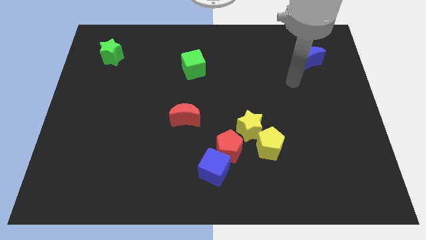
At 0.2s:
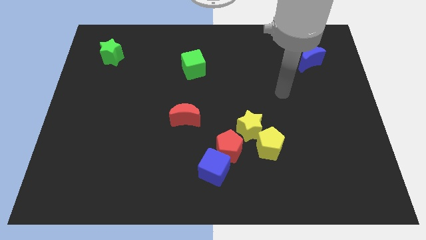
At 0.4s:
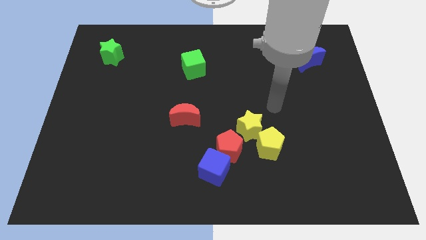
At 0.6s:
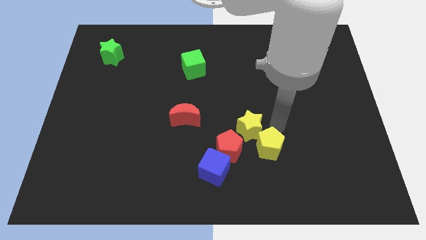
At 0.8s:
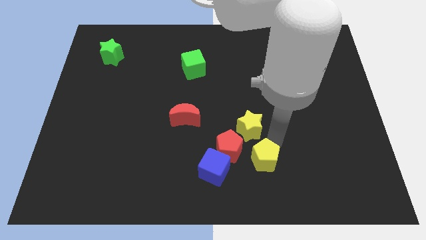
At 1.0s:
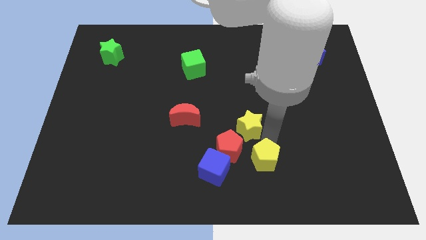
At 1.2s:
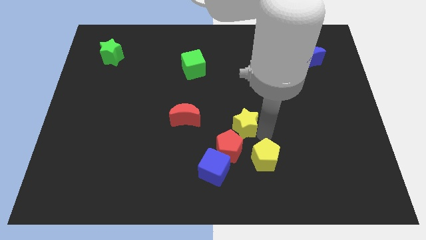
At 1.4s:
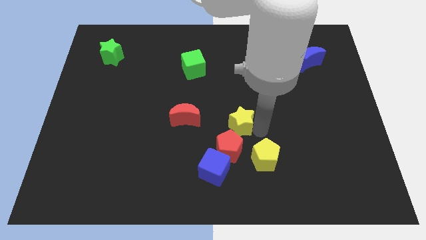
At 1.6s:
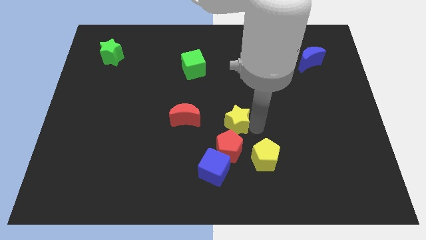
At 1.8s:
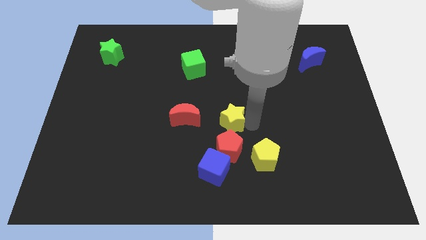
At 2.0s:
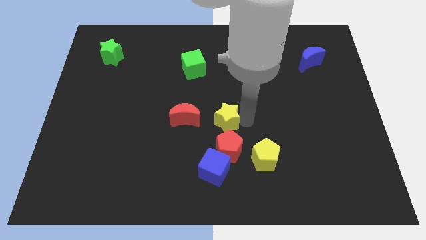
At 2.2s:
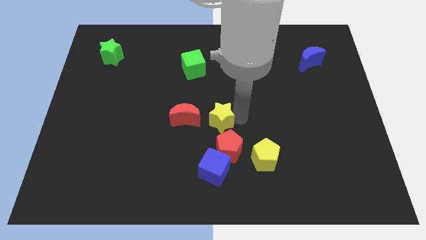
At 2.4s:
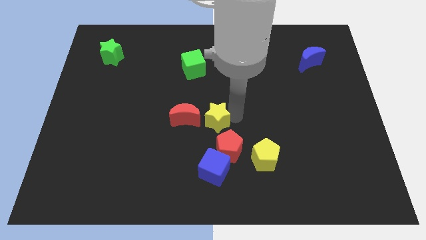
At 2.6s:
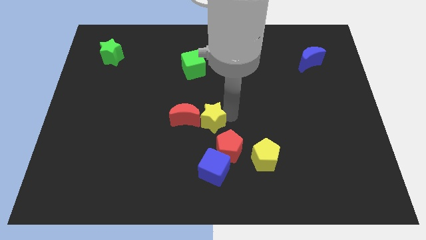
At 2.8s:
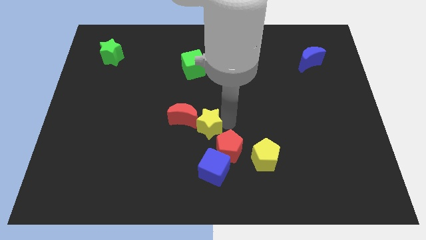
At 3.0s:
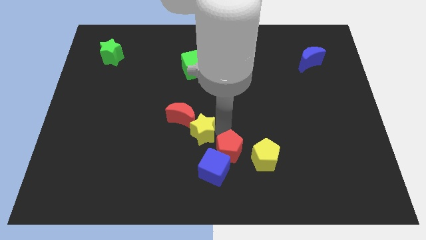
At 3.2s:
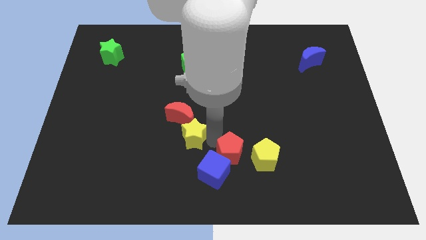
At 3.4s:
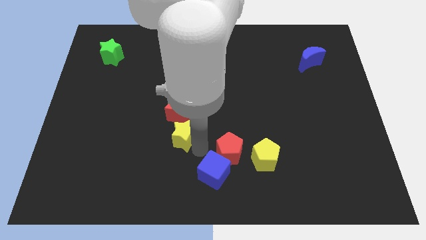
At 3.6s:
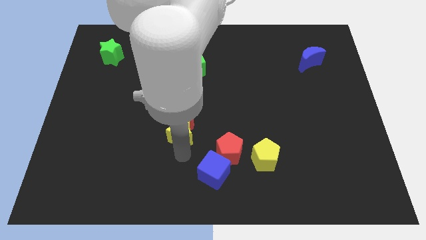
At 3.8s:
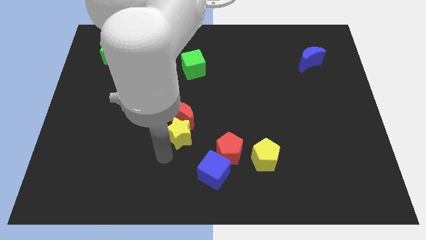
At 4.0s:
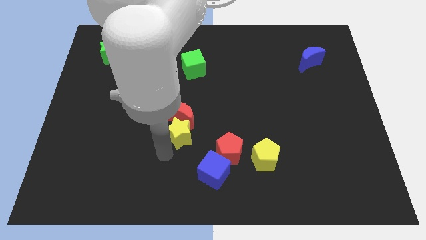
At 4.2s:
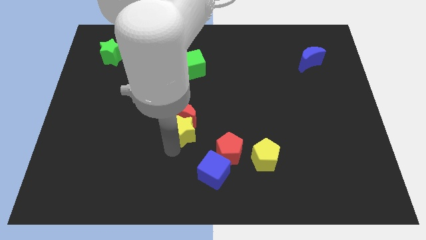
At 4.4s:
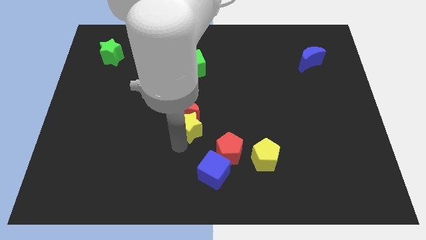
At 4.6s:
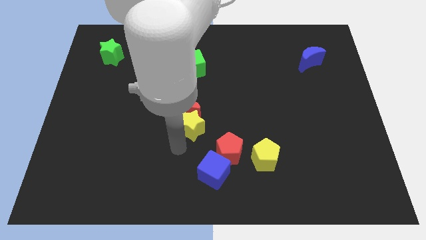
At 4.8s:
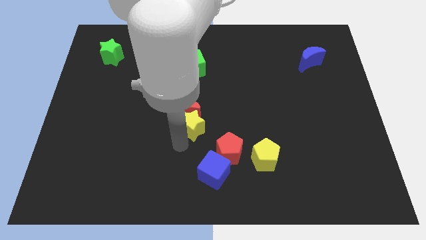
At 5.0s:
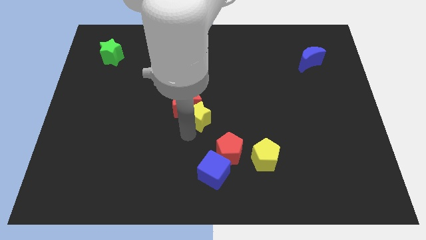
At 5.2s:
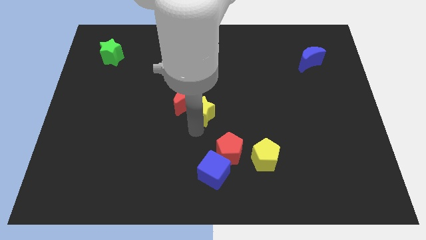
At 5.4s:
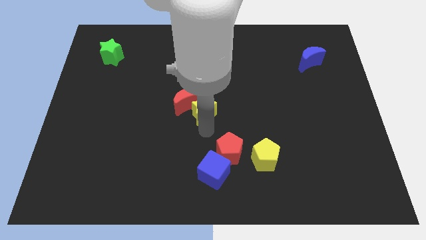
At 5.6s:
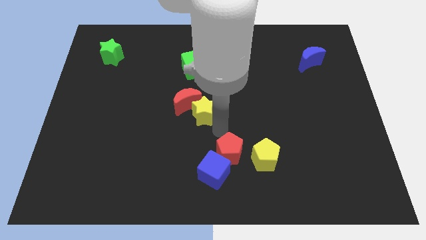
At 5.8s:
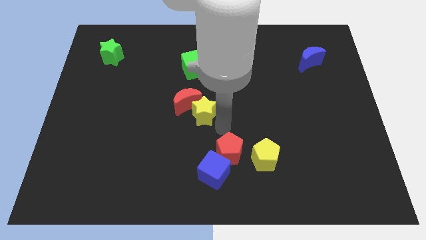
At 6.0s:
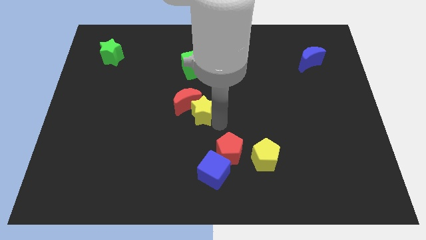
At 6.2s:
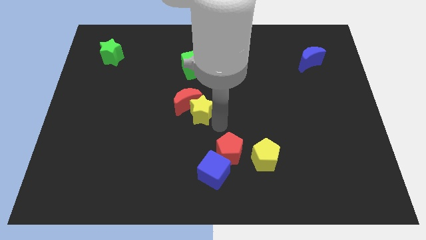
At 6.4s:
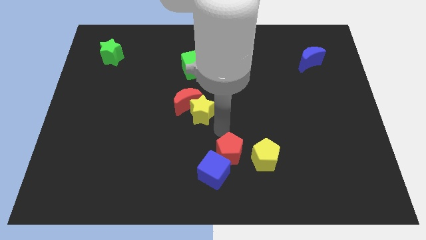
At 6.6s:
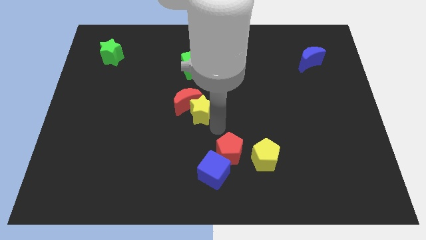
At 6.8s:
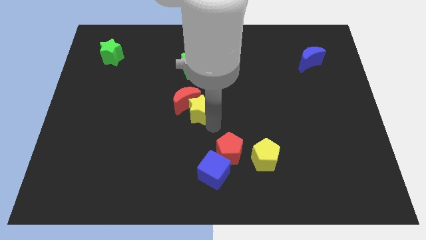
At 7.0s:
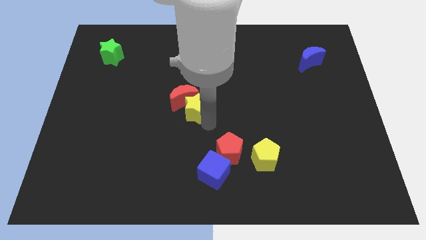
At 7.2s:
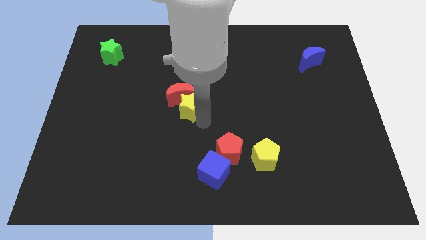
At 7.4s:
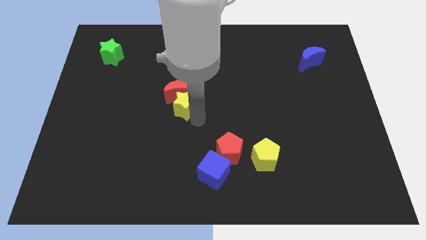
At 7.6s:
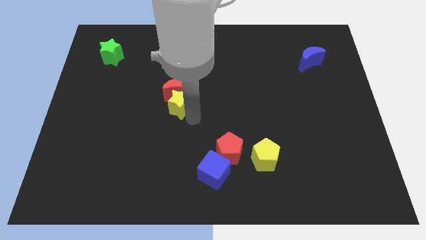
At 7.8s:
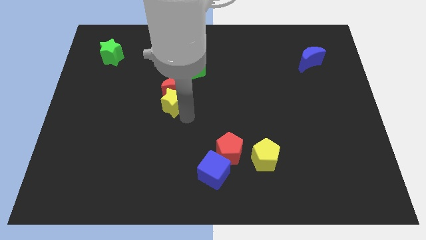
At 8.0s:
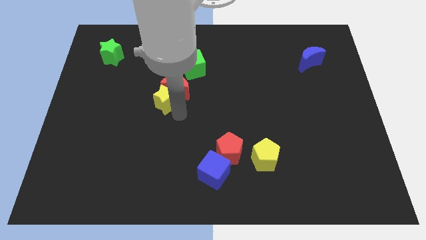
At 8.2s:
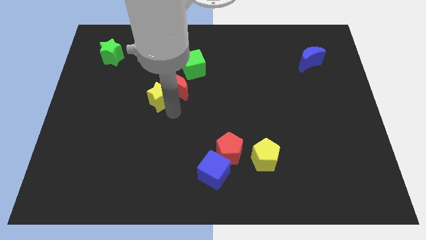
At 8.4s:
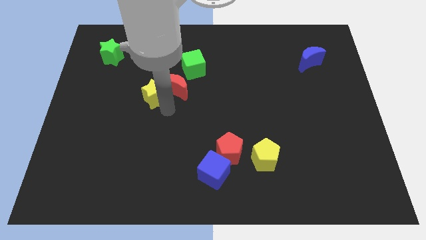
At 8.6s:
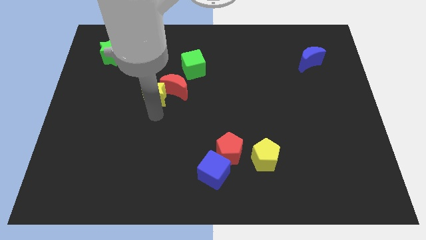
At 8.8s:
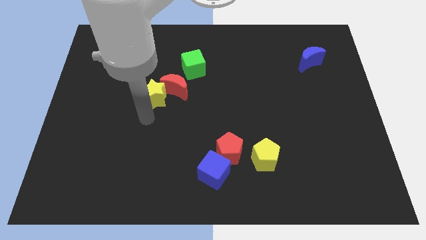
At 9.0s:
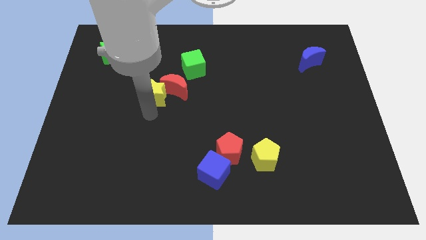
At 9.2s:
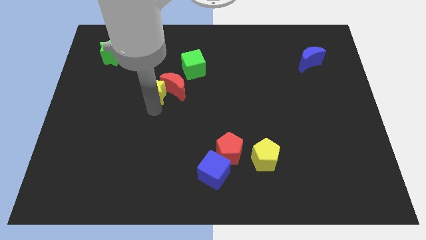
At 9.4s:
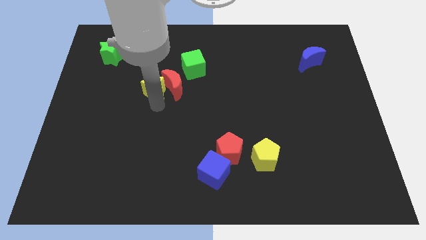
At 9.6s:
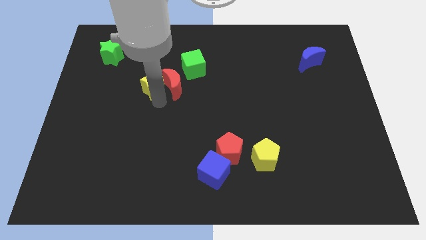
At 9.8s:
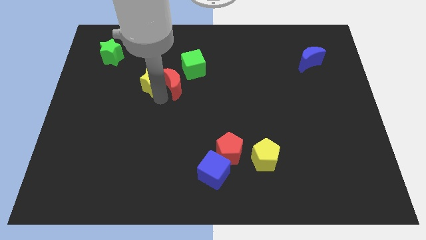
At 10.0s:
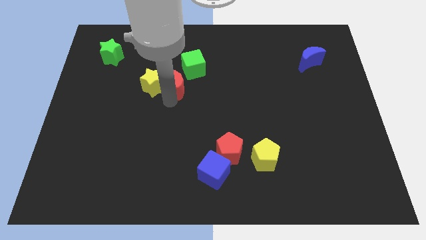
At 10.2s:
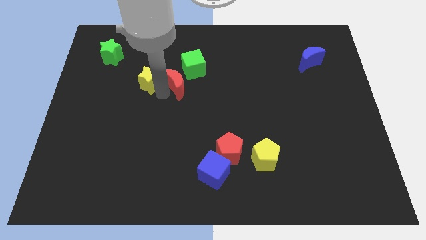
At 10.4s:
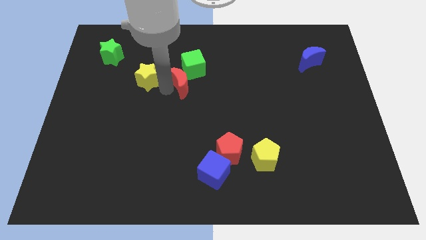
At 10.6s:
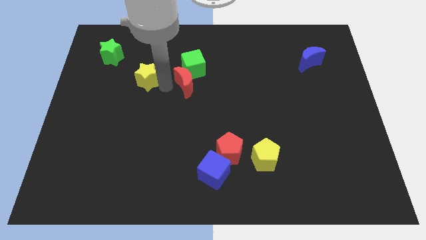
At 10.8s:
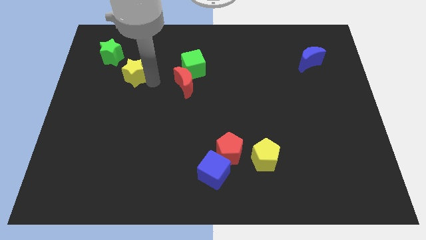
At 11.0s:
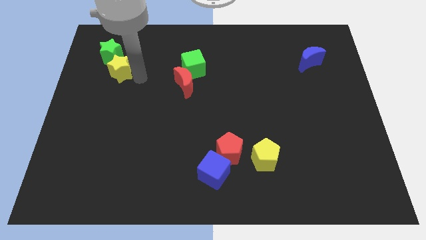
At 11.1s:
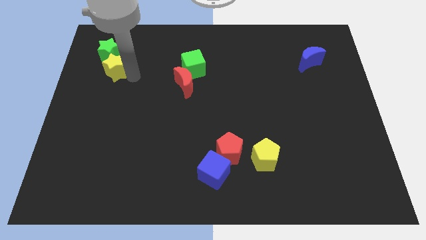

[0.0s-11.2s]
move the yellow star towards the green star

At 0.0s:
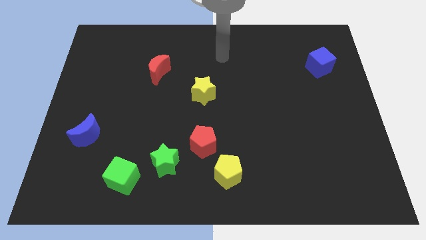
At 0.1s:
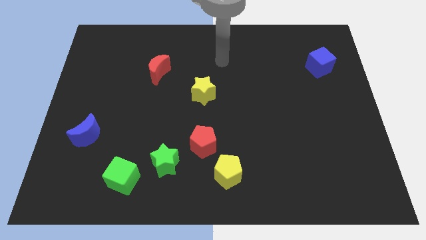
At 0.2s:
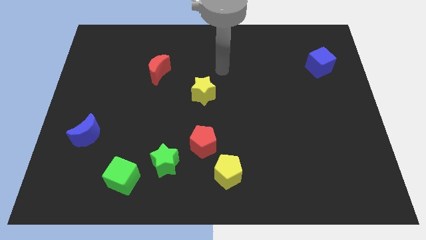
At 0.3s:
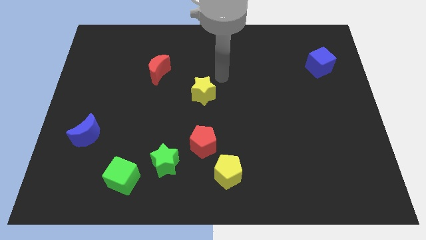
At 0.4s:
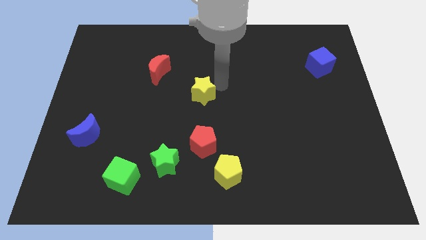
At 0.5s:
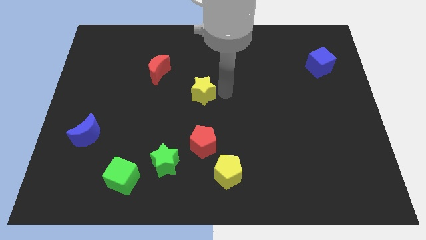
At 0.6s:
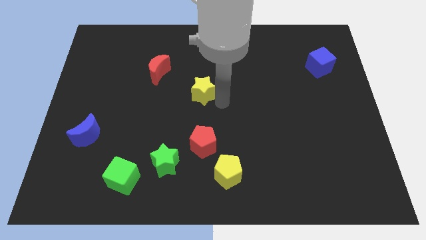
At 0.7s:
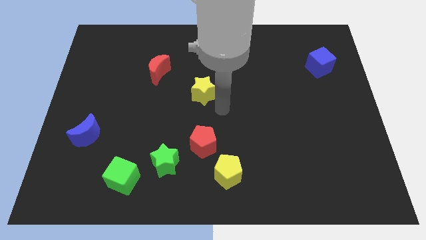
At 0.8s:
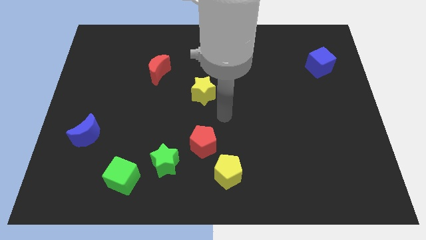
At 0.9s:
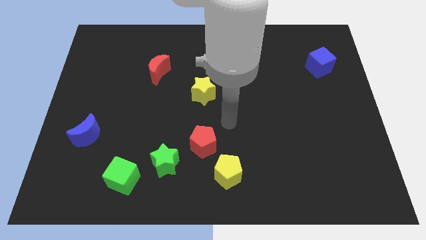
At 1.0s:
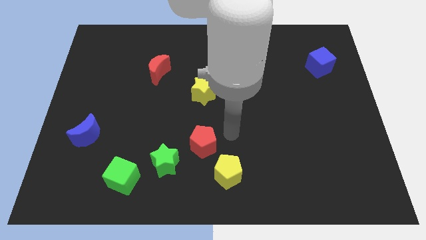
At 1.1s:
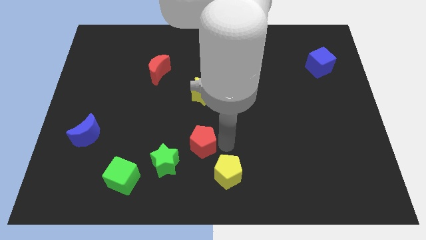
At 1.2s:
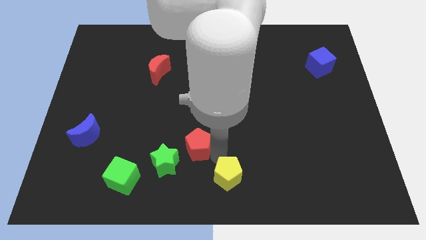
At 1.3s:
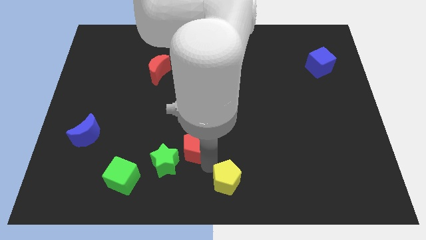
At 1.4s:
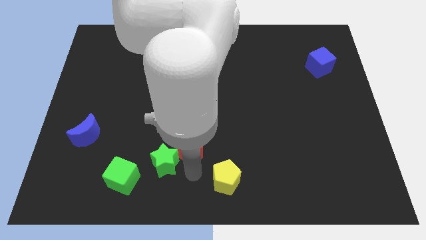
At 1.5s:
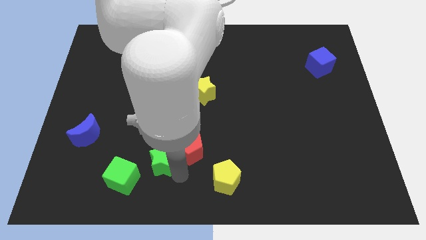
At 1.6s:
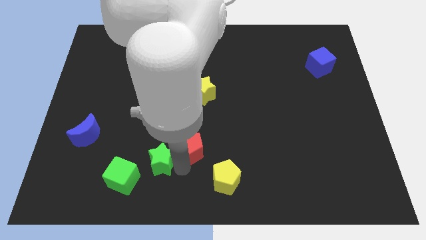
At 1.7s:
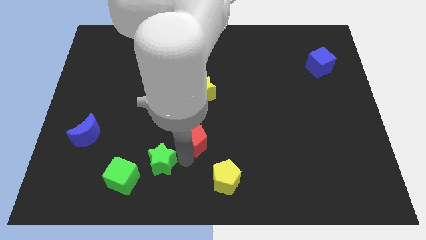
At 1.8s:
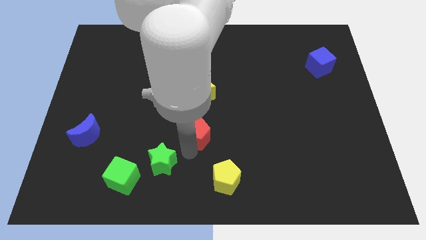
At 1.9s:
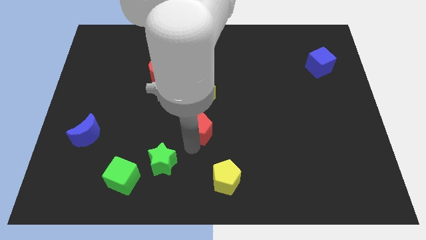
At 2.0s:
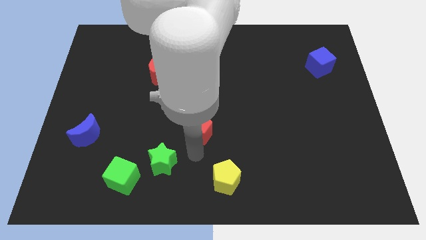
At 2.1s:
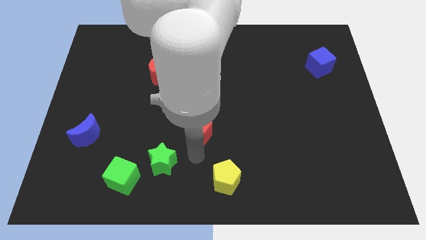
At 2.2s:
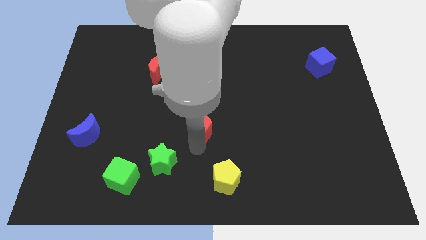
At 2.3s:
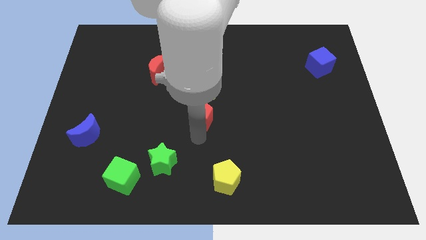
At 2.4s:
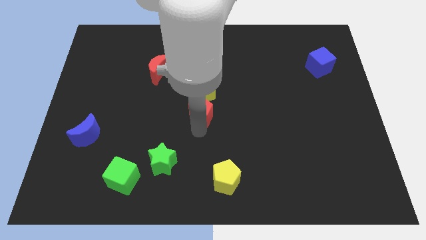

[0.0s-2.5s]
push the red pentagon to the yellow star
